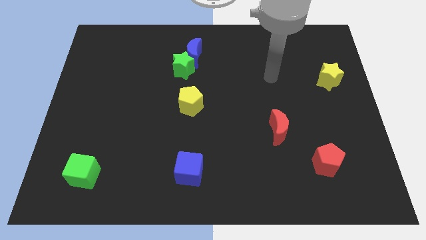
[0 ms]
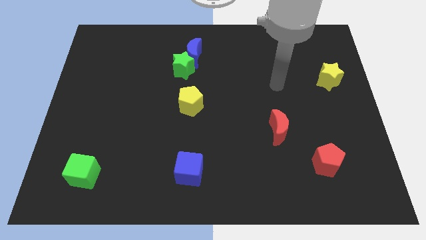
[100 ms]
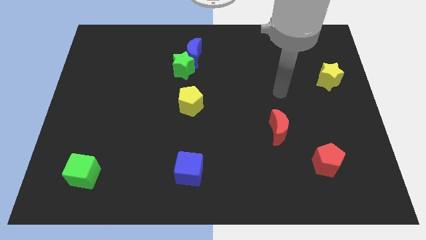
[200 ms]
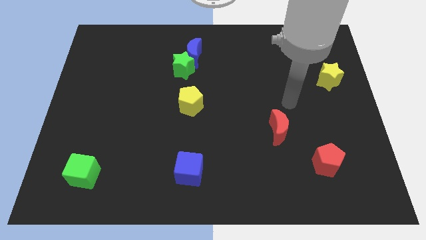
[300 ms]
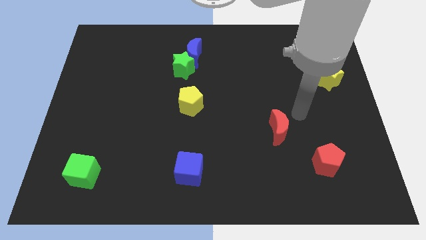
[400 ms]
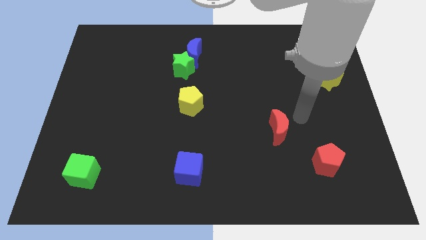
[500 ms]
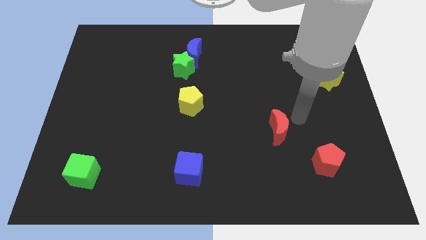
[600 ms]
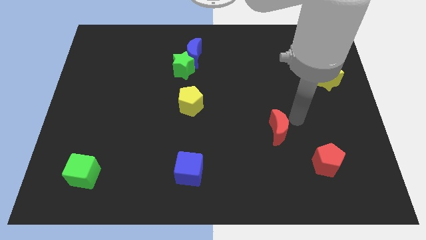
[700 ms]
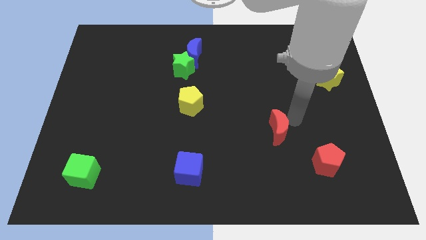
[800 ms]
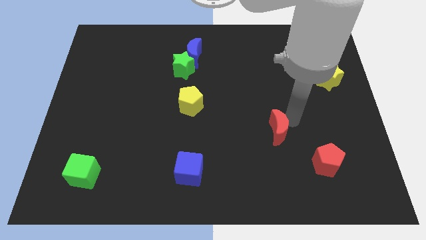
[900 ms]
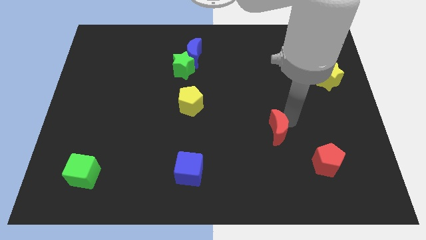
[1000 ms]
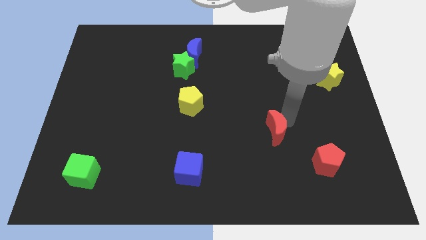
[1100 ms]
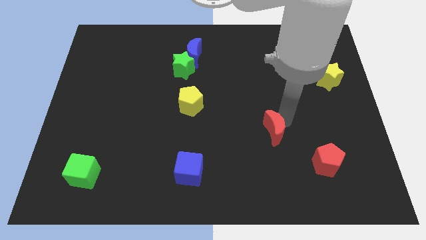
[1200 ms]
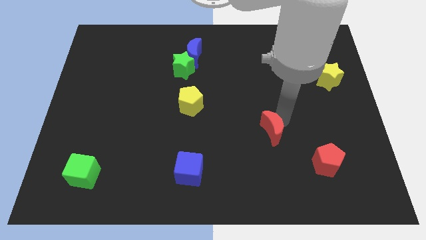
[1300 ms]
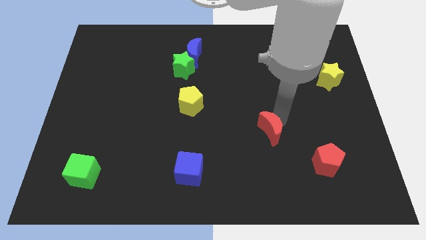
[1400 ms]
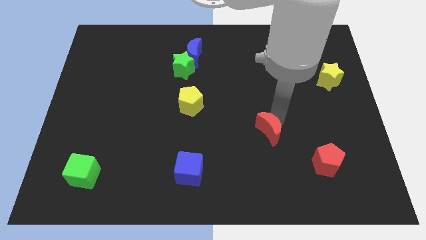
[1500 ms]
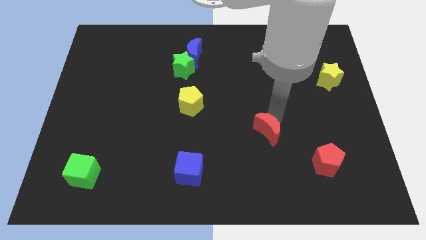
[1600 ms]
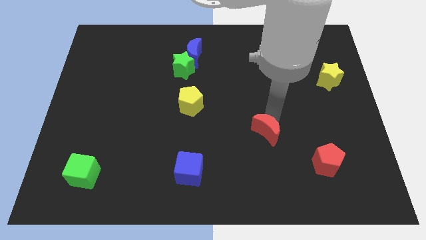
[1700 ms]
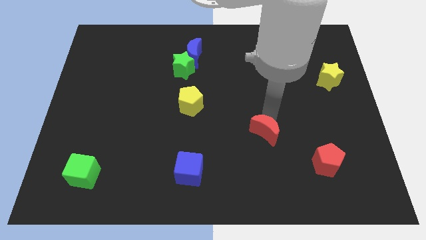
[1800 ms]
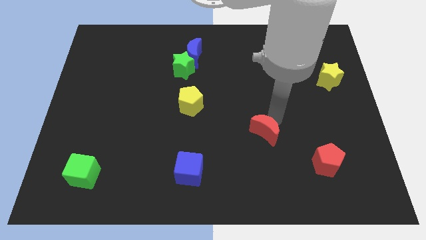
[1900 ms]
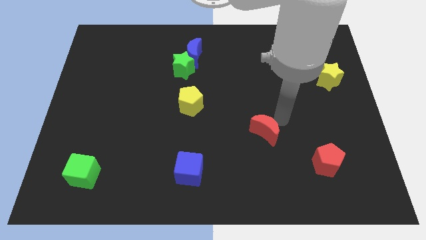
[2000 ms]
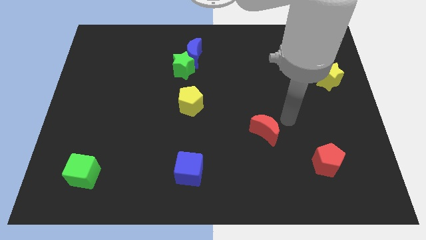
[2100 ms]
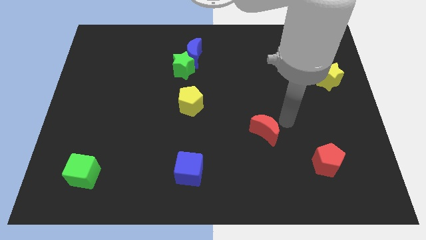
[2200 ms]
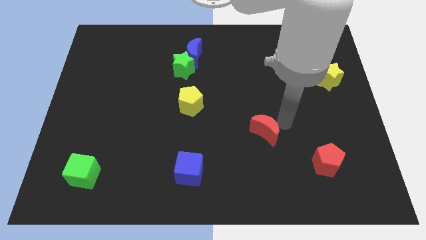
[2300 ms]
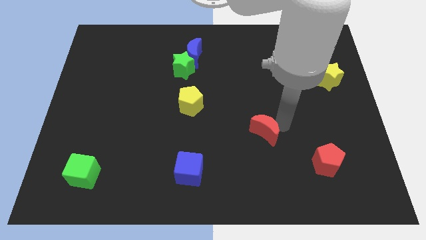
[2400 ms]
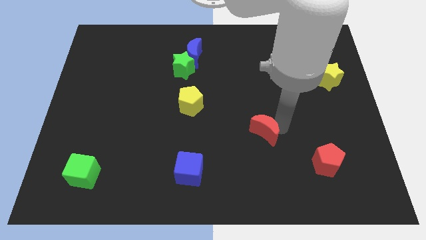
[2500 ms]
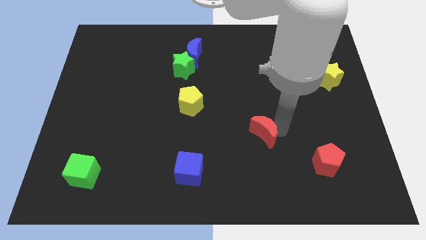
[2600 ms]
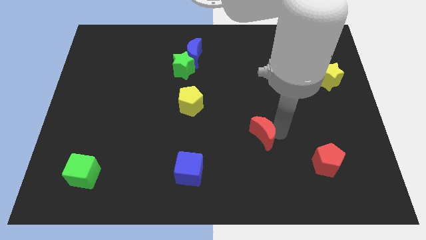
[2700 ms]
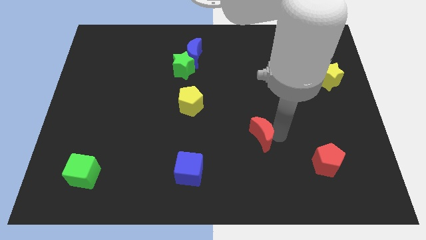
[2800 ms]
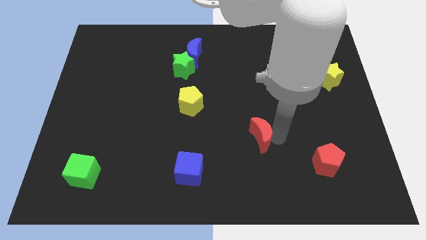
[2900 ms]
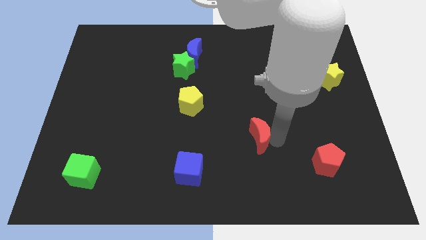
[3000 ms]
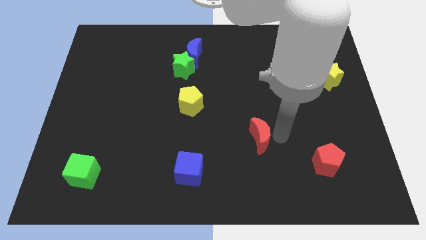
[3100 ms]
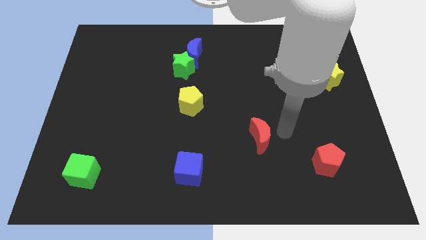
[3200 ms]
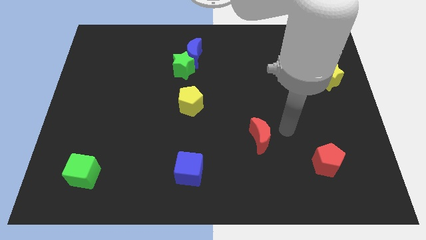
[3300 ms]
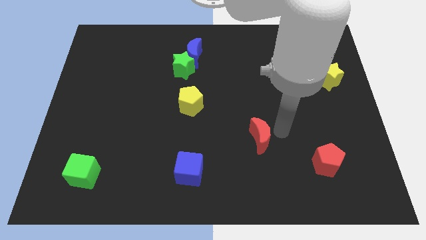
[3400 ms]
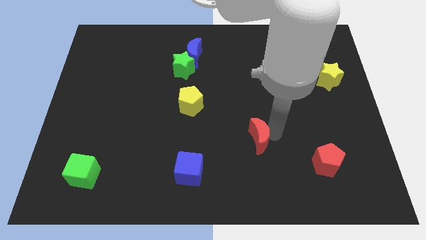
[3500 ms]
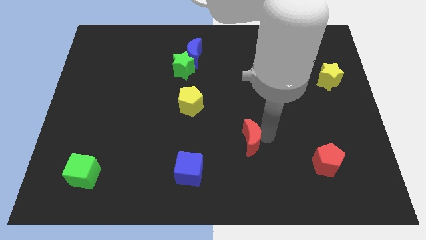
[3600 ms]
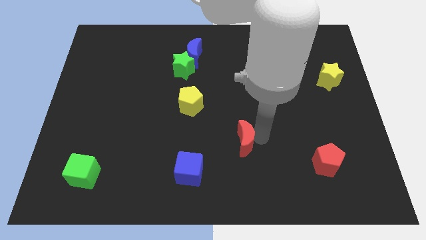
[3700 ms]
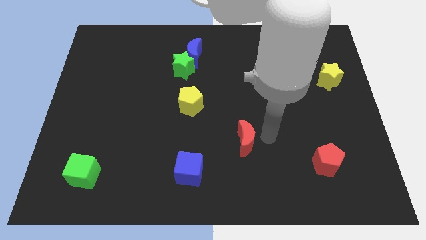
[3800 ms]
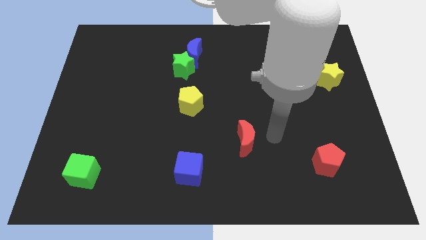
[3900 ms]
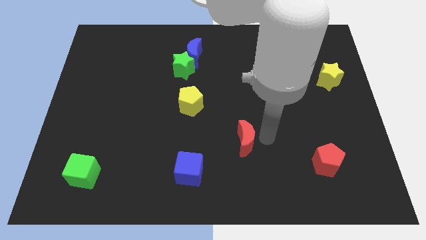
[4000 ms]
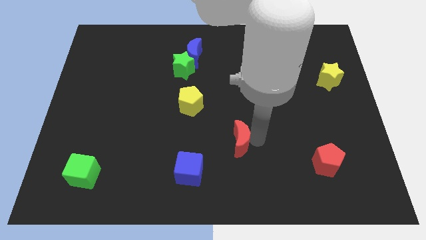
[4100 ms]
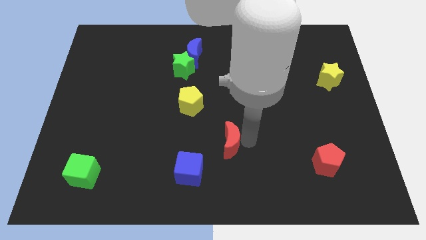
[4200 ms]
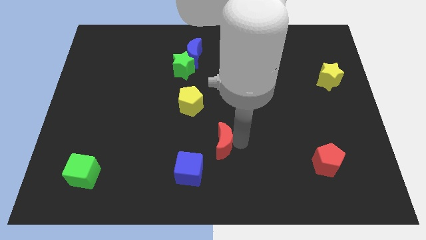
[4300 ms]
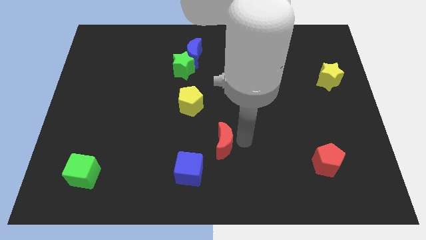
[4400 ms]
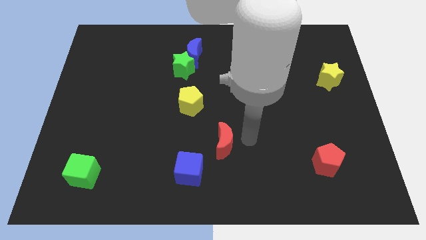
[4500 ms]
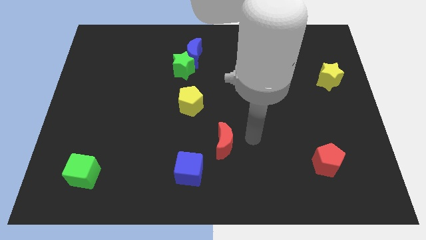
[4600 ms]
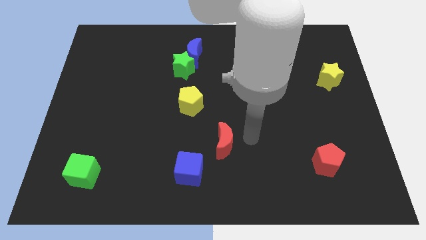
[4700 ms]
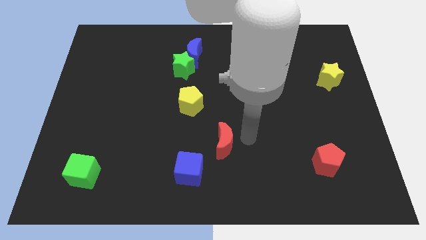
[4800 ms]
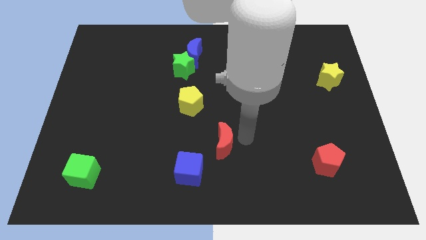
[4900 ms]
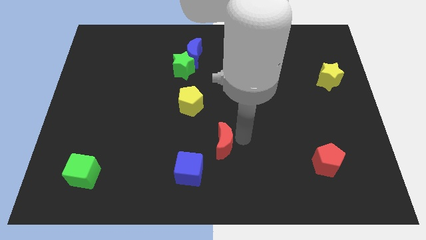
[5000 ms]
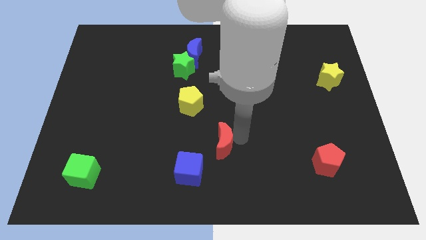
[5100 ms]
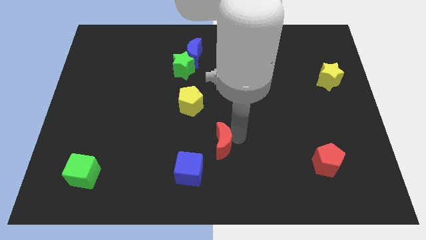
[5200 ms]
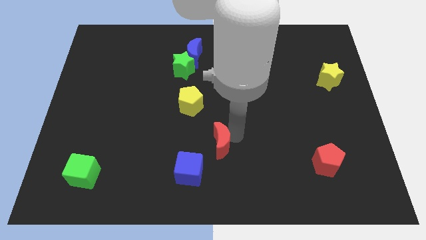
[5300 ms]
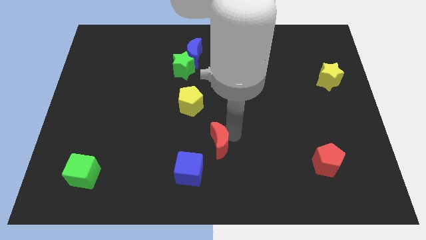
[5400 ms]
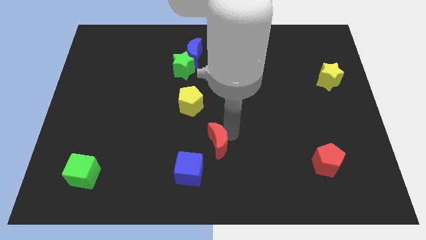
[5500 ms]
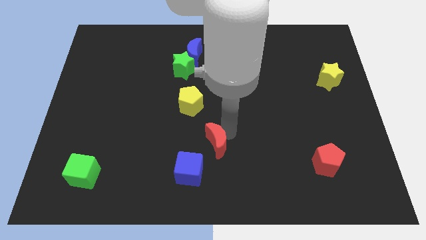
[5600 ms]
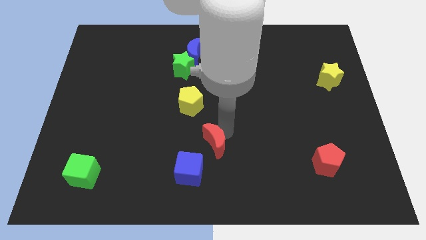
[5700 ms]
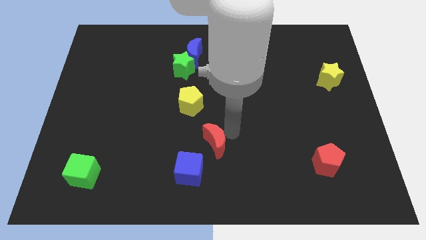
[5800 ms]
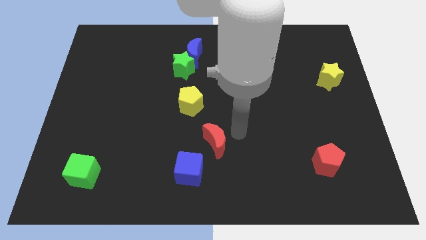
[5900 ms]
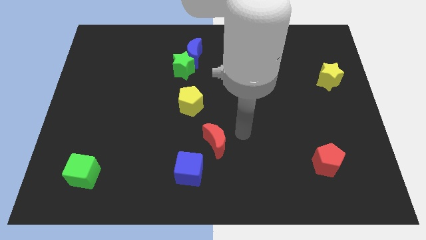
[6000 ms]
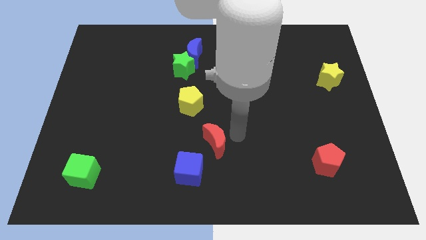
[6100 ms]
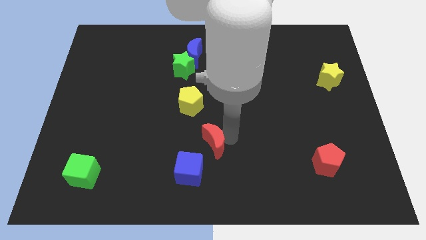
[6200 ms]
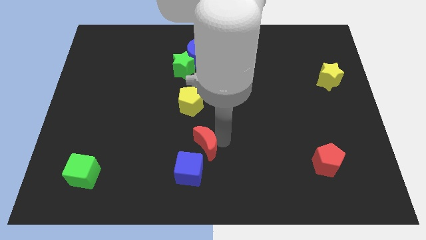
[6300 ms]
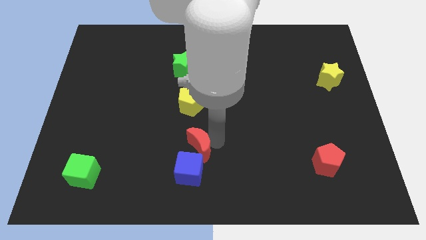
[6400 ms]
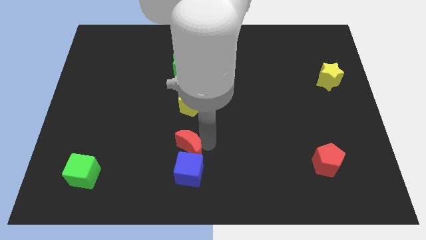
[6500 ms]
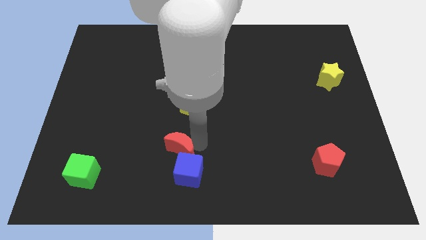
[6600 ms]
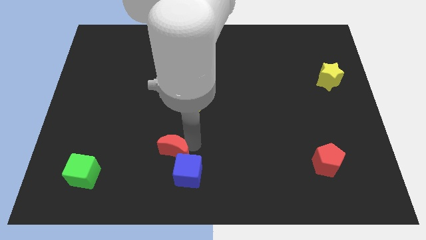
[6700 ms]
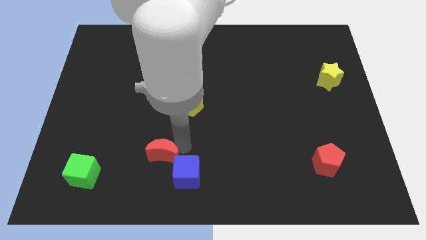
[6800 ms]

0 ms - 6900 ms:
put the red moon just left of the blue cube
